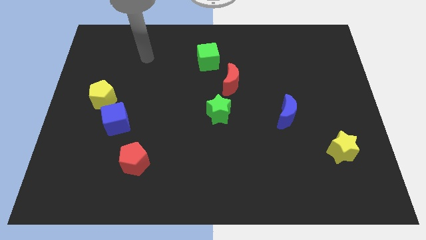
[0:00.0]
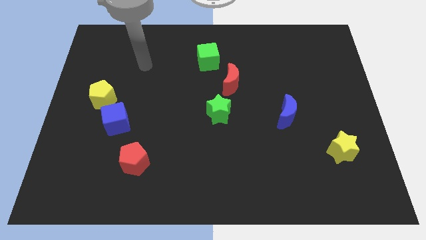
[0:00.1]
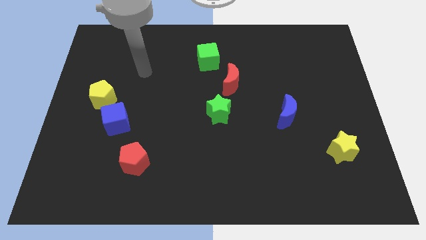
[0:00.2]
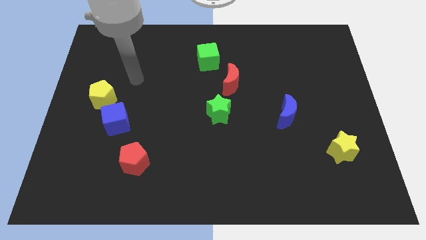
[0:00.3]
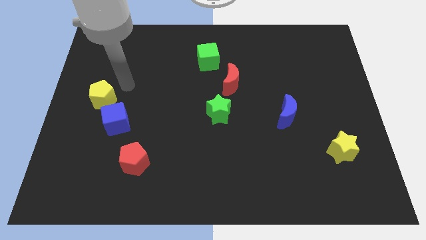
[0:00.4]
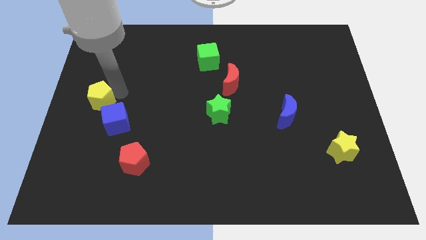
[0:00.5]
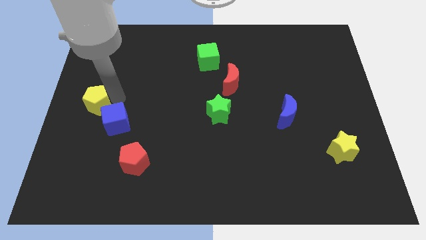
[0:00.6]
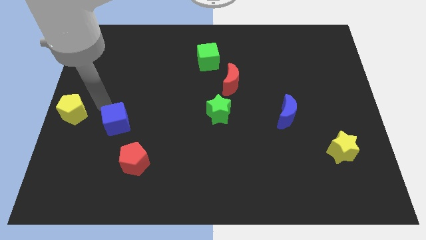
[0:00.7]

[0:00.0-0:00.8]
move the blue cube away from the yellow pentagon

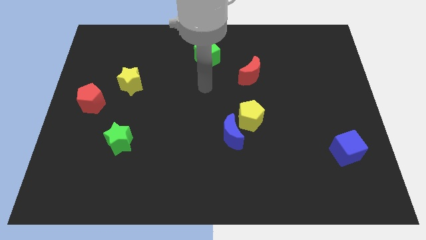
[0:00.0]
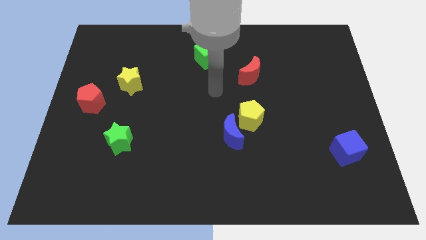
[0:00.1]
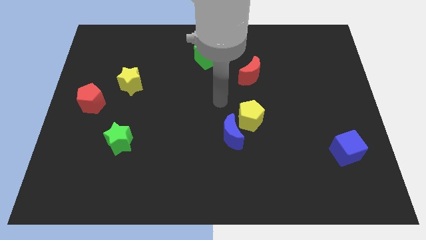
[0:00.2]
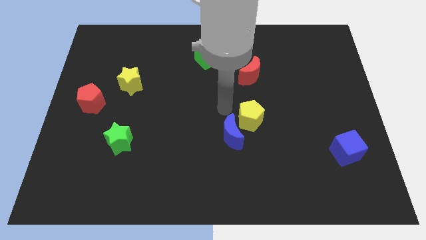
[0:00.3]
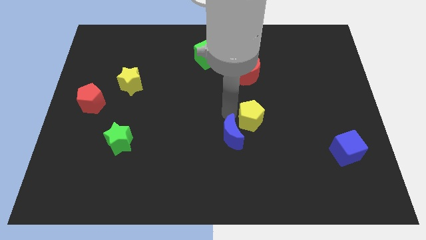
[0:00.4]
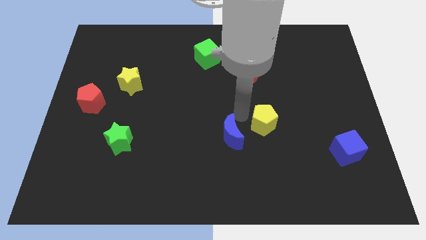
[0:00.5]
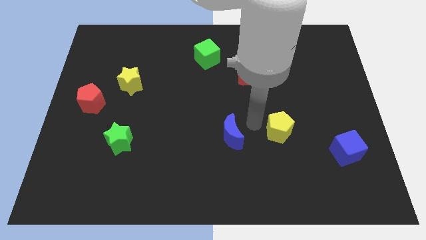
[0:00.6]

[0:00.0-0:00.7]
separate the blue moon from the yellow pentagon

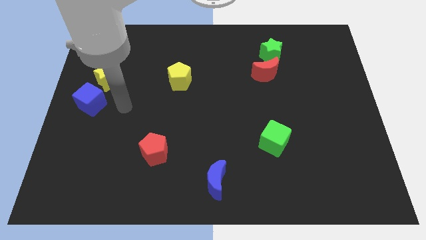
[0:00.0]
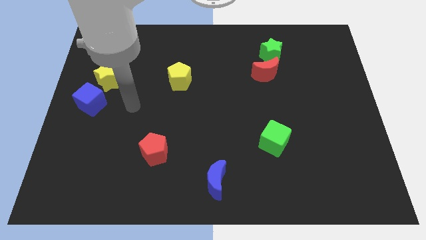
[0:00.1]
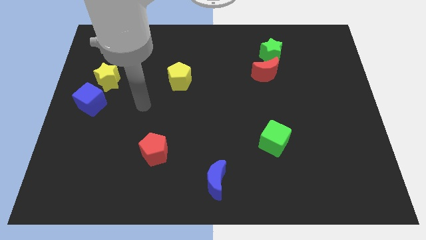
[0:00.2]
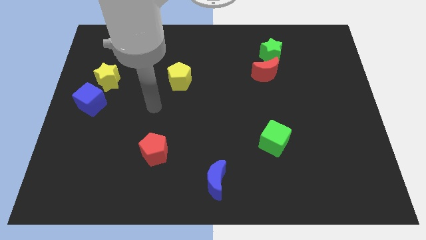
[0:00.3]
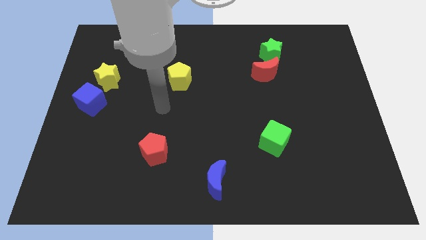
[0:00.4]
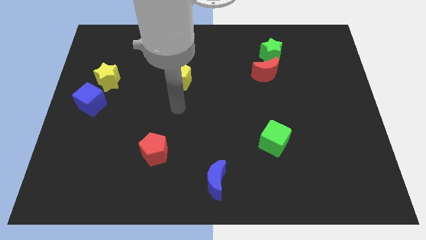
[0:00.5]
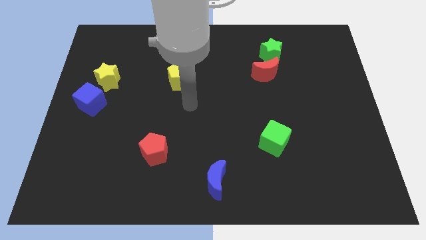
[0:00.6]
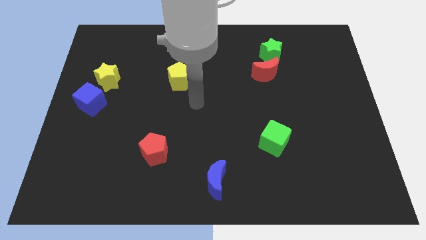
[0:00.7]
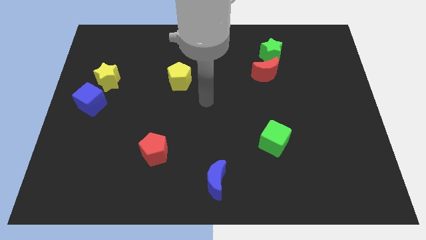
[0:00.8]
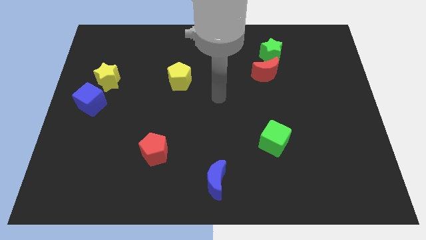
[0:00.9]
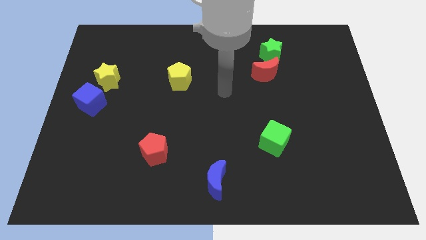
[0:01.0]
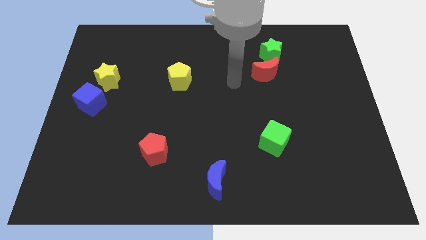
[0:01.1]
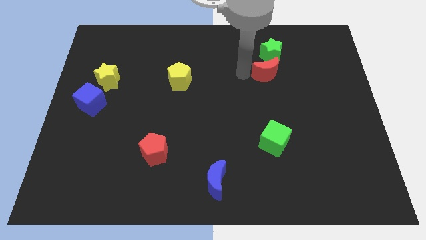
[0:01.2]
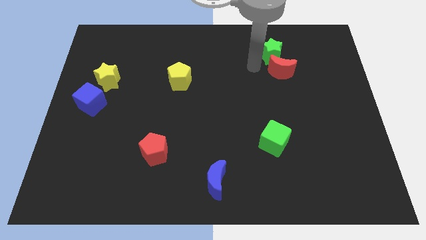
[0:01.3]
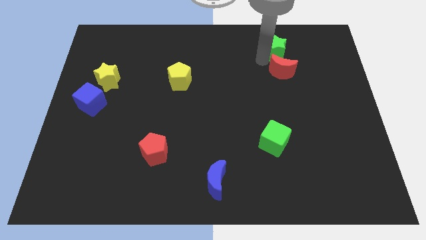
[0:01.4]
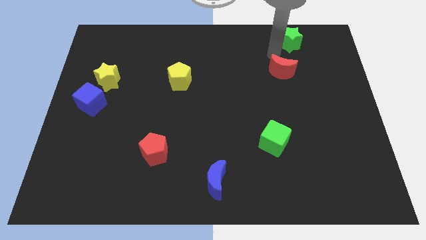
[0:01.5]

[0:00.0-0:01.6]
pull the red moon apart from the green star

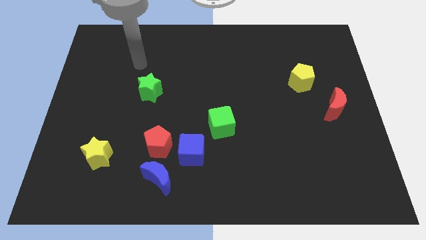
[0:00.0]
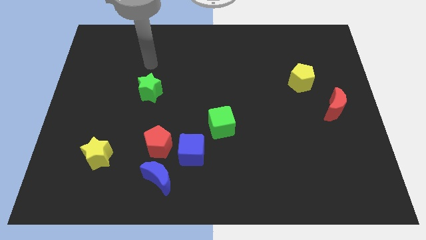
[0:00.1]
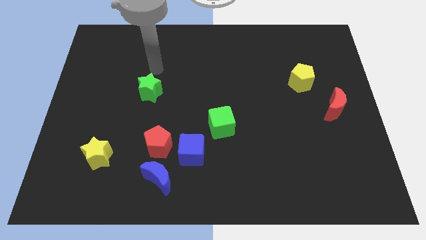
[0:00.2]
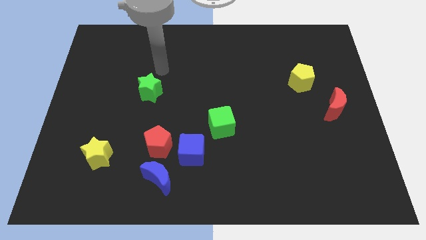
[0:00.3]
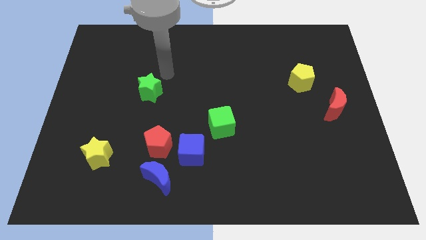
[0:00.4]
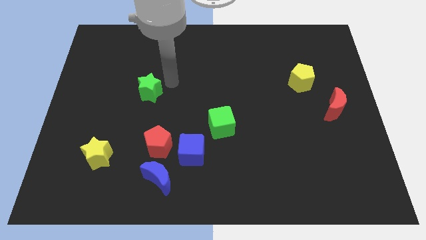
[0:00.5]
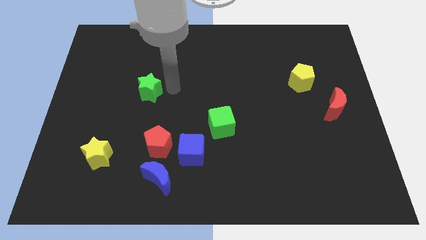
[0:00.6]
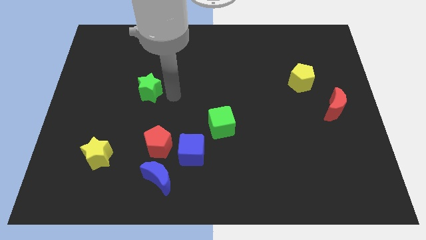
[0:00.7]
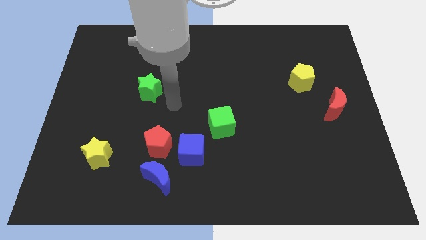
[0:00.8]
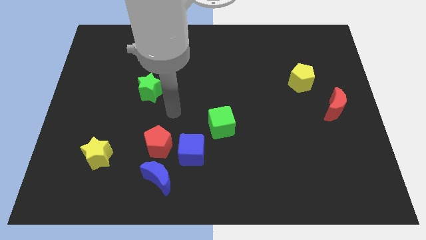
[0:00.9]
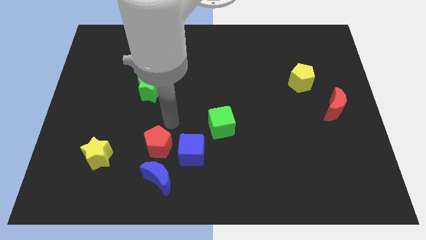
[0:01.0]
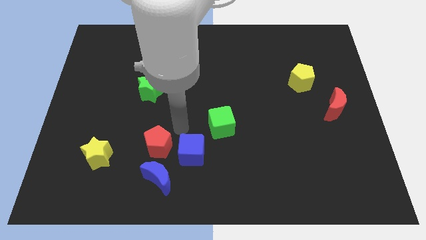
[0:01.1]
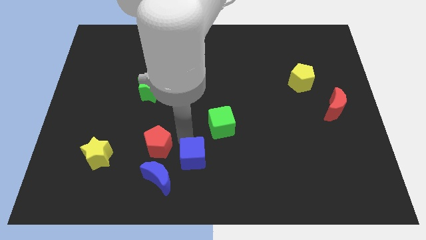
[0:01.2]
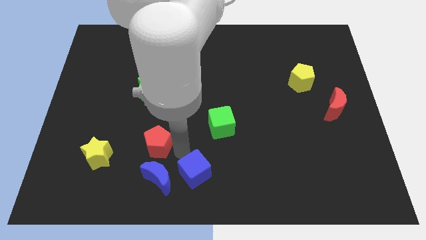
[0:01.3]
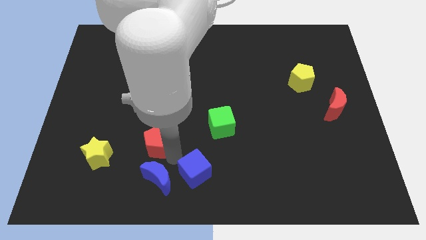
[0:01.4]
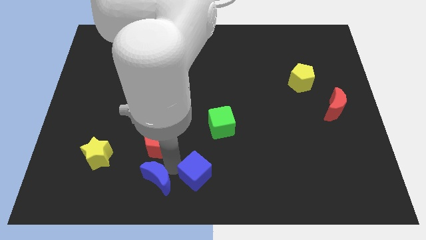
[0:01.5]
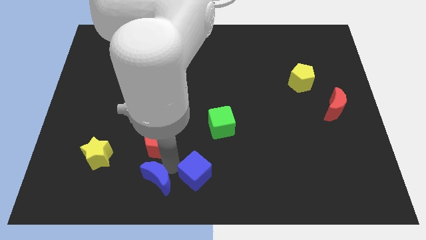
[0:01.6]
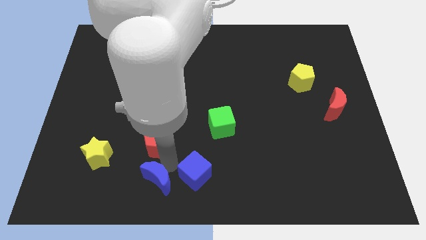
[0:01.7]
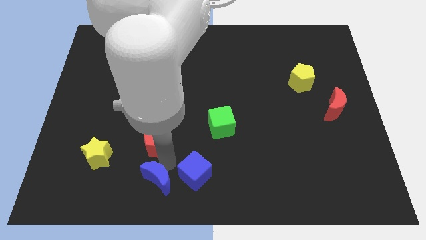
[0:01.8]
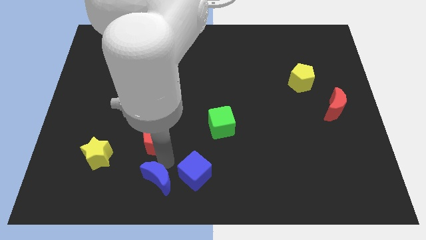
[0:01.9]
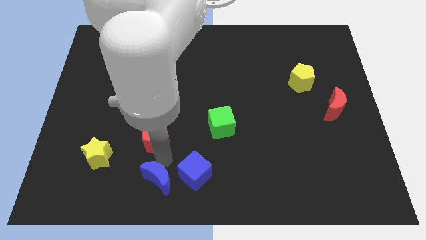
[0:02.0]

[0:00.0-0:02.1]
separate the red pentagon from the blue cube and blue moon

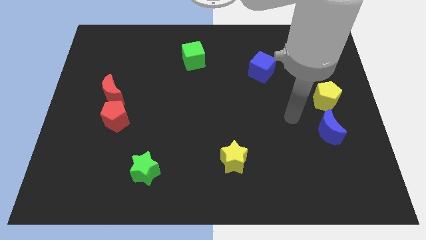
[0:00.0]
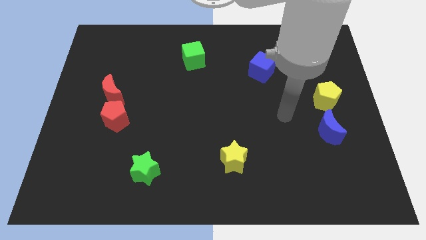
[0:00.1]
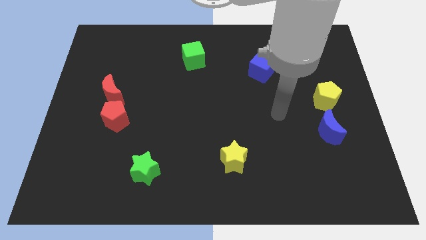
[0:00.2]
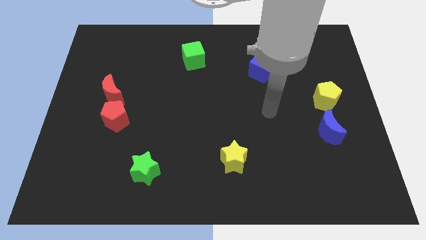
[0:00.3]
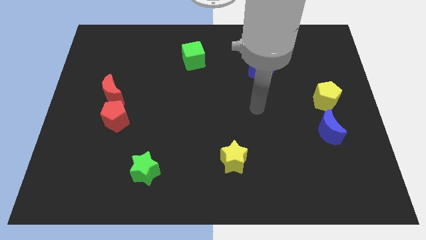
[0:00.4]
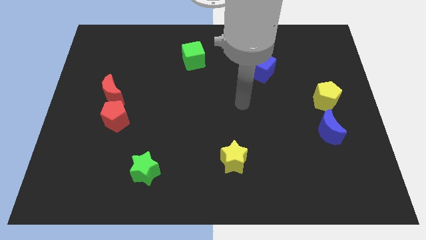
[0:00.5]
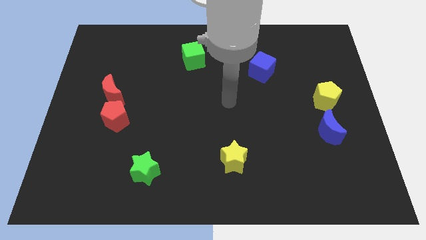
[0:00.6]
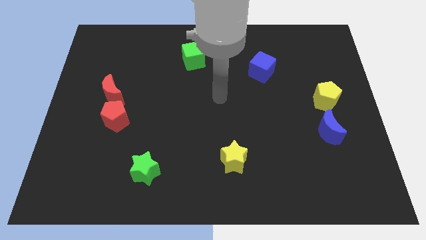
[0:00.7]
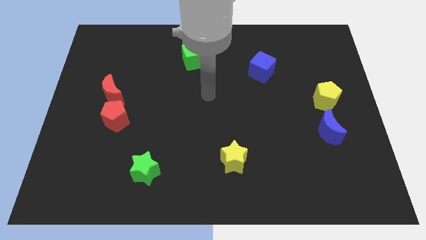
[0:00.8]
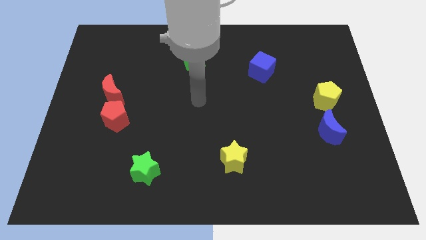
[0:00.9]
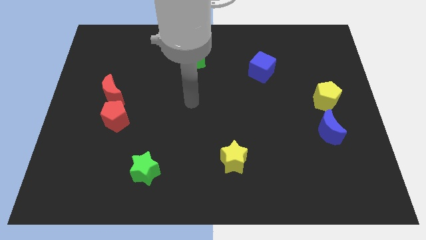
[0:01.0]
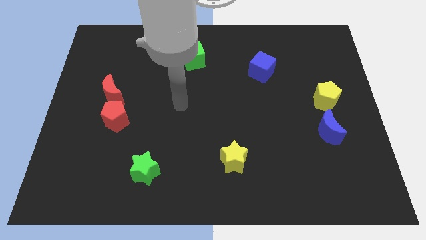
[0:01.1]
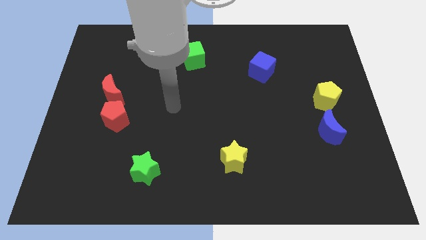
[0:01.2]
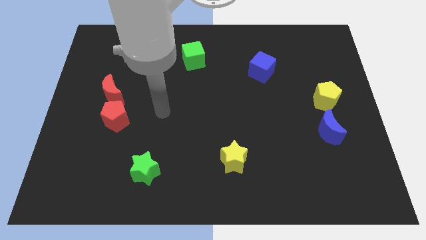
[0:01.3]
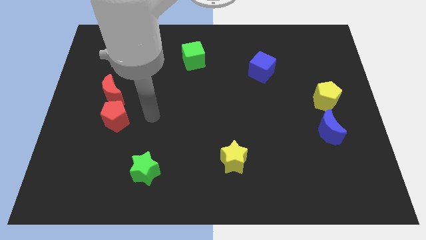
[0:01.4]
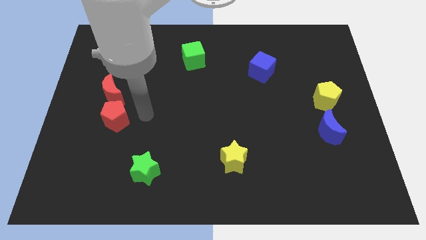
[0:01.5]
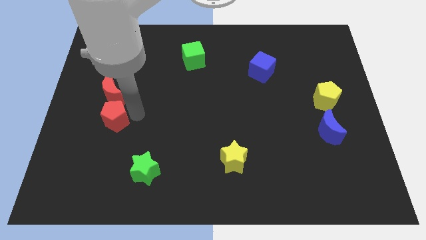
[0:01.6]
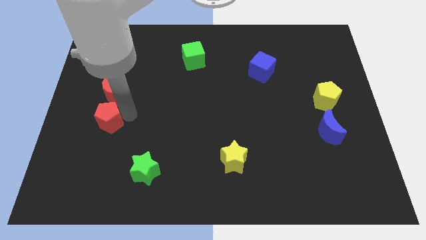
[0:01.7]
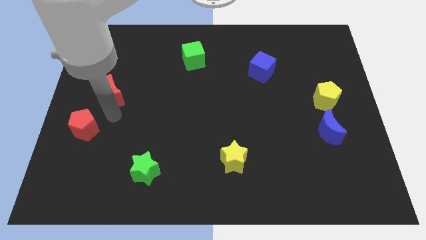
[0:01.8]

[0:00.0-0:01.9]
pull the red moon apart from the red pentagon

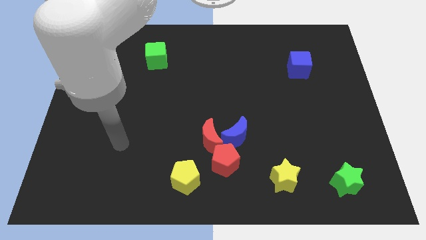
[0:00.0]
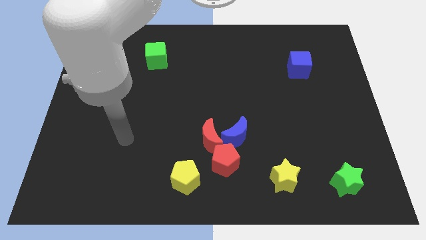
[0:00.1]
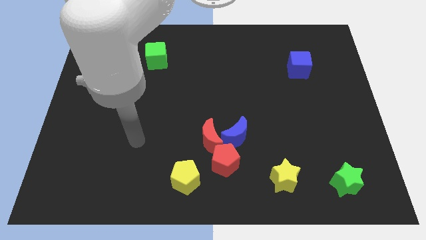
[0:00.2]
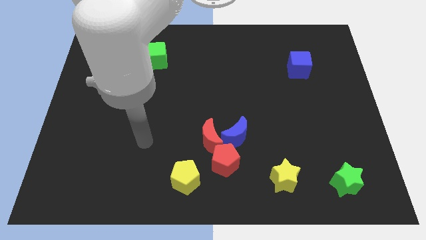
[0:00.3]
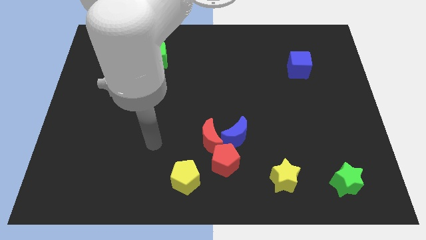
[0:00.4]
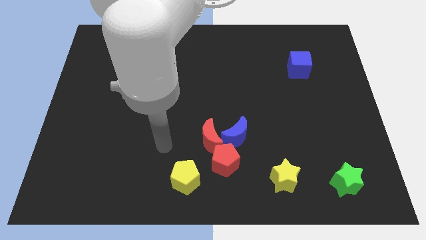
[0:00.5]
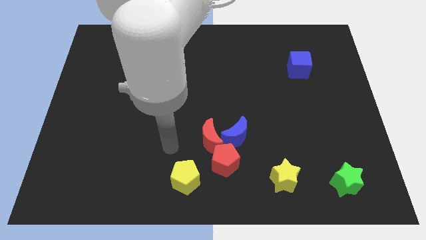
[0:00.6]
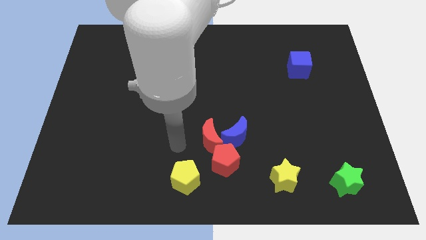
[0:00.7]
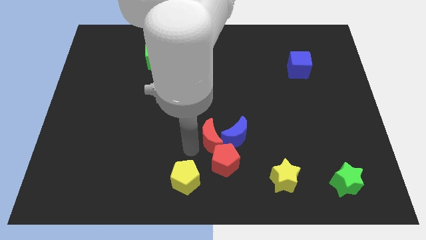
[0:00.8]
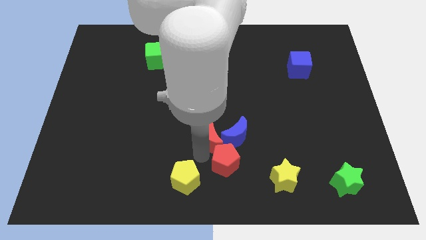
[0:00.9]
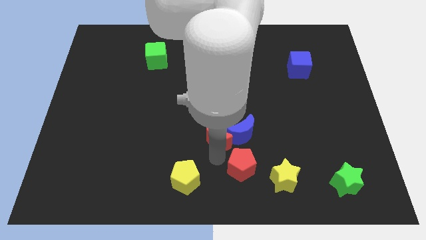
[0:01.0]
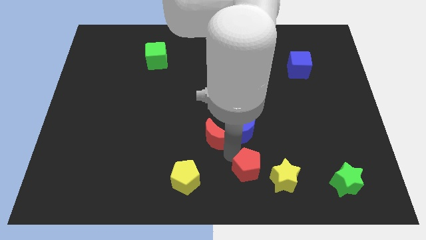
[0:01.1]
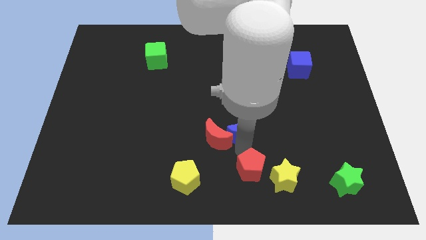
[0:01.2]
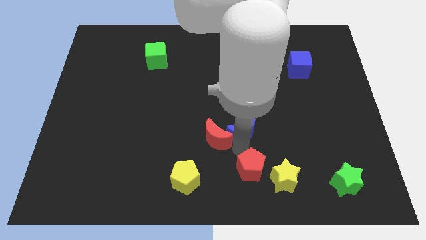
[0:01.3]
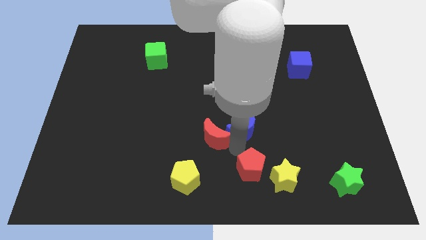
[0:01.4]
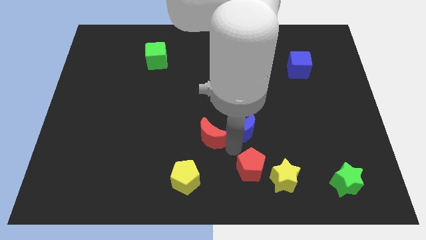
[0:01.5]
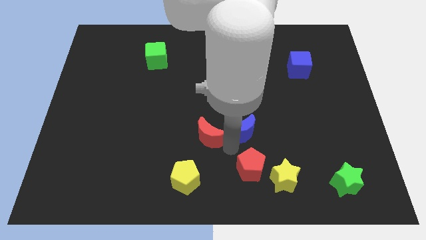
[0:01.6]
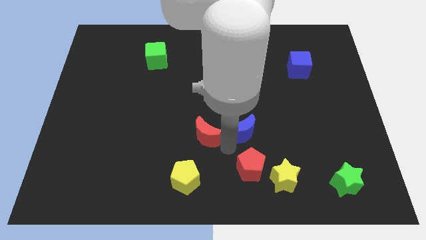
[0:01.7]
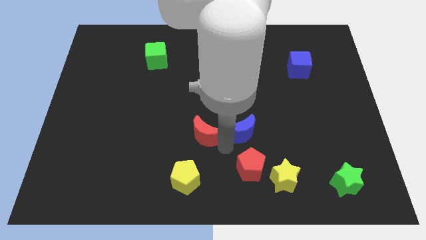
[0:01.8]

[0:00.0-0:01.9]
separate the red moon from the blue moon and red pentagon

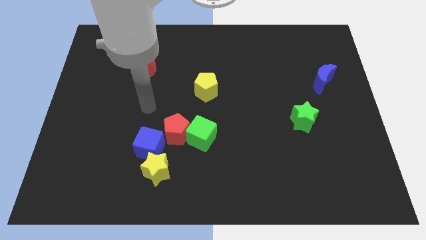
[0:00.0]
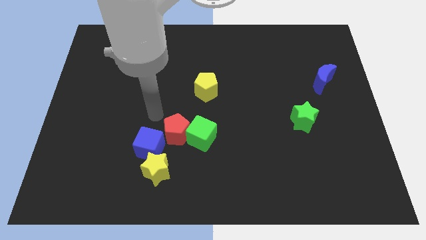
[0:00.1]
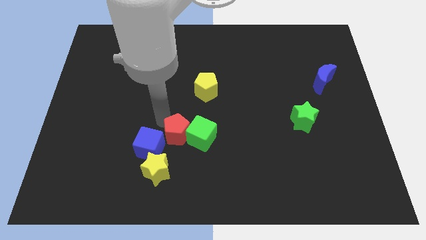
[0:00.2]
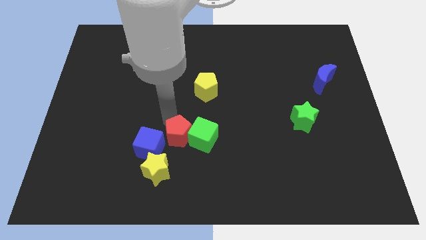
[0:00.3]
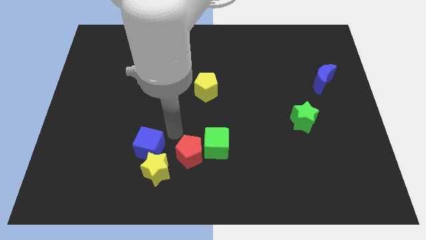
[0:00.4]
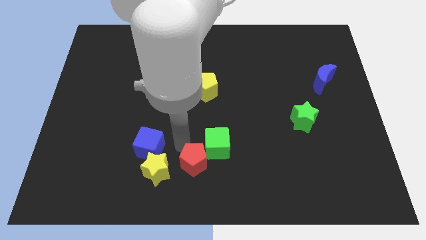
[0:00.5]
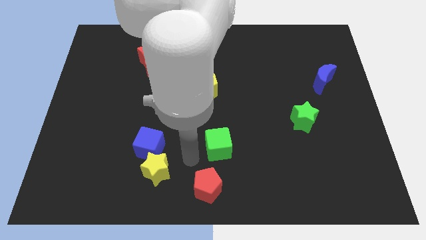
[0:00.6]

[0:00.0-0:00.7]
move the green cube away from the red pentagon
